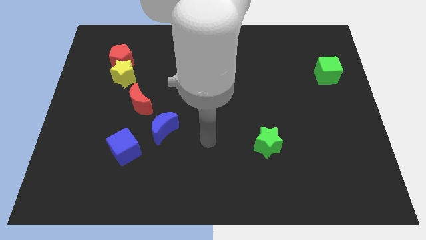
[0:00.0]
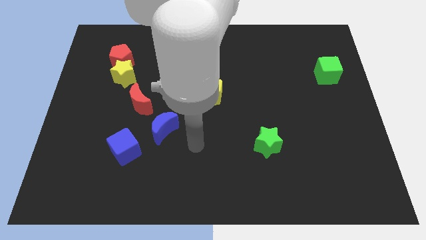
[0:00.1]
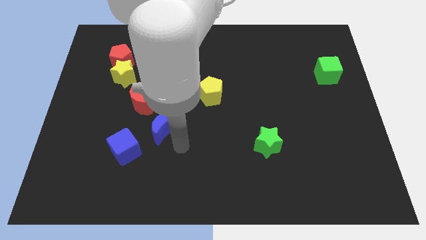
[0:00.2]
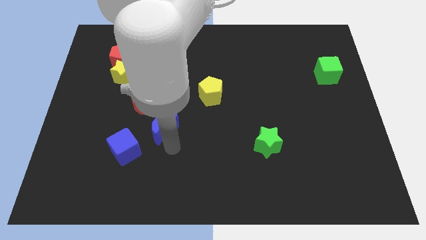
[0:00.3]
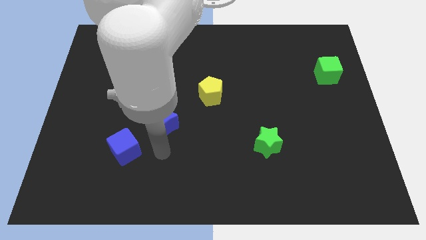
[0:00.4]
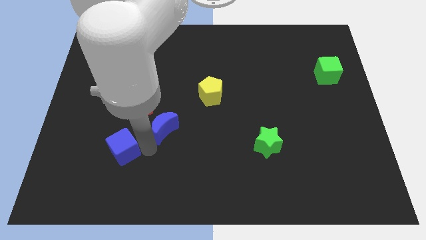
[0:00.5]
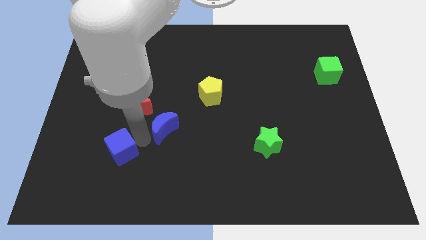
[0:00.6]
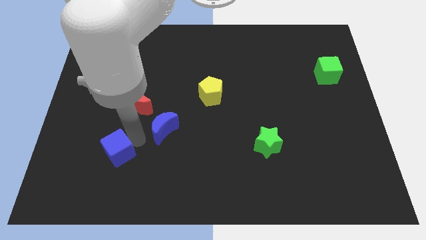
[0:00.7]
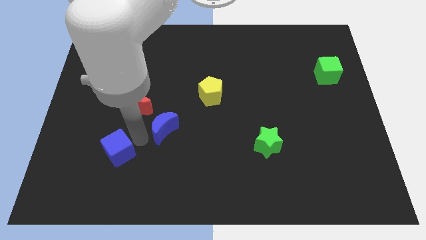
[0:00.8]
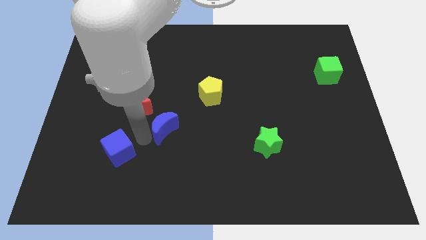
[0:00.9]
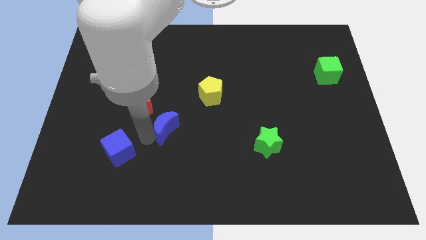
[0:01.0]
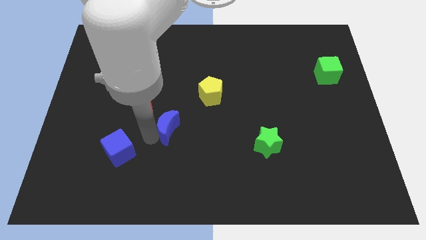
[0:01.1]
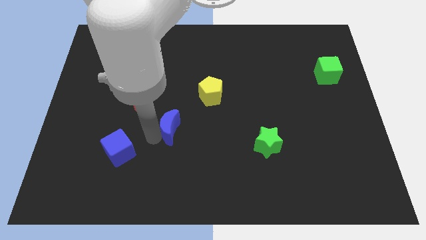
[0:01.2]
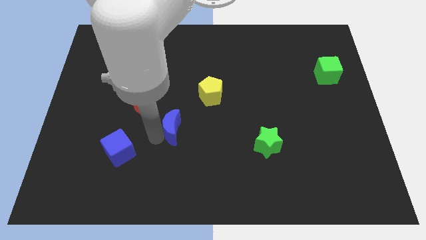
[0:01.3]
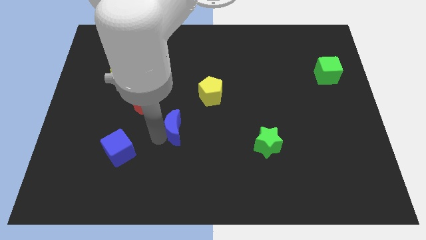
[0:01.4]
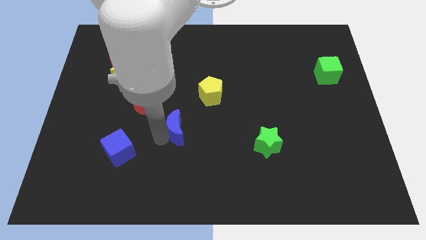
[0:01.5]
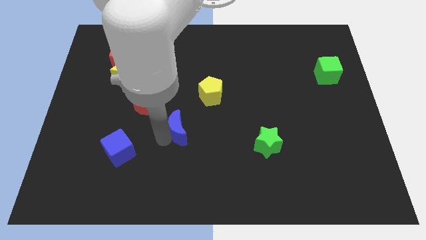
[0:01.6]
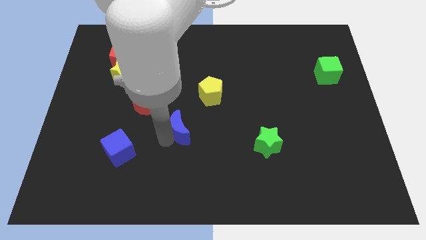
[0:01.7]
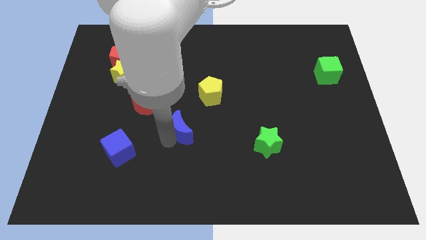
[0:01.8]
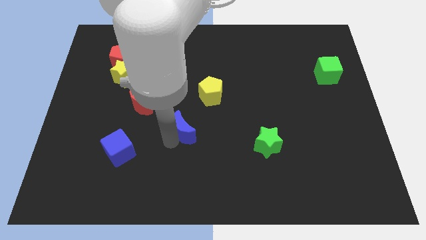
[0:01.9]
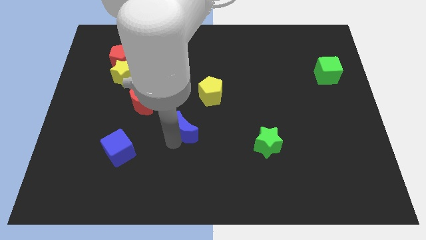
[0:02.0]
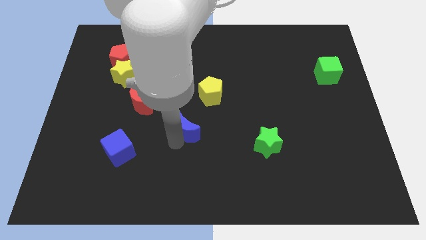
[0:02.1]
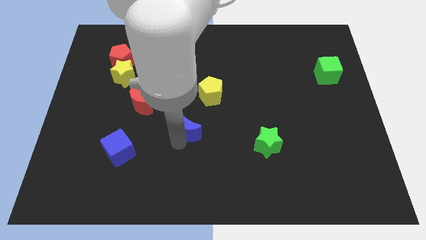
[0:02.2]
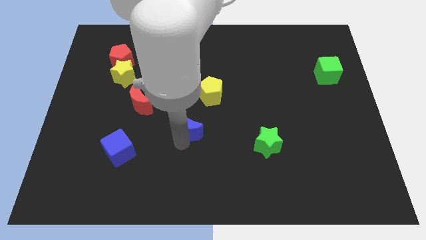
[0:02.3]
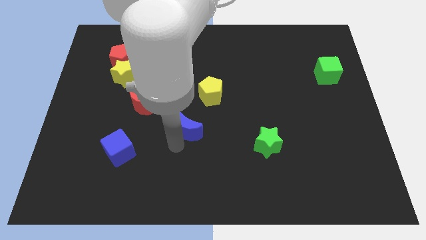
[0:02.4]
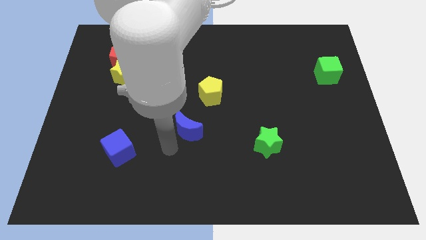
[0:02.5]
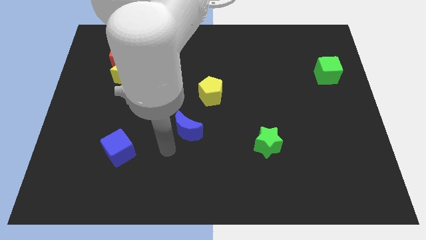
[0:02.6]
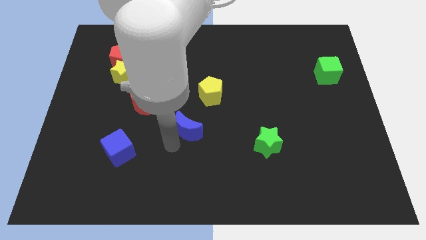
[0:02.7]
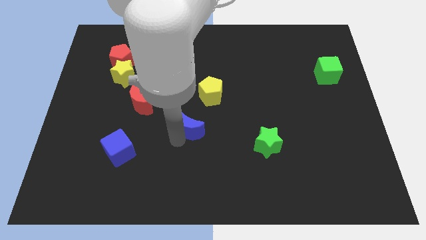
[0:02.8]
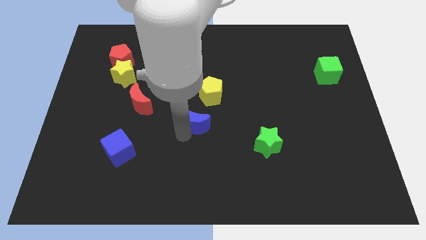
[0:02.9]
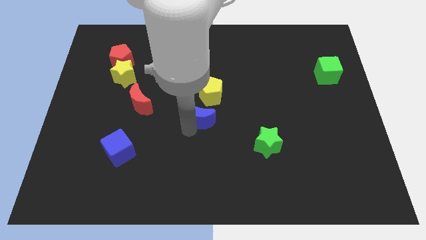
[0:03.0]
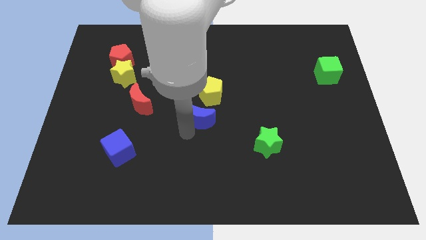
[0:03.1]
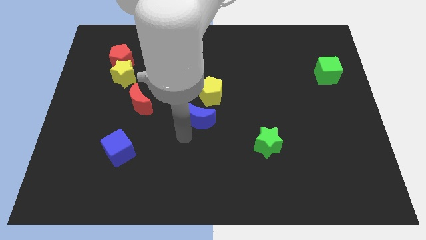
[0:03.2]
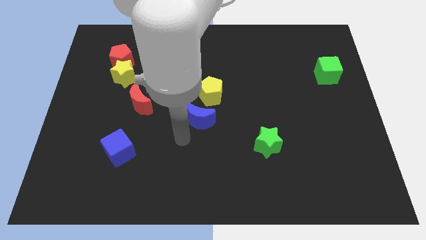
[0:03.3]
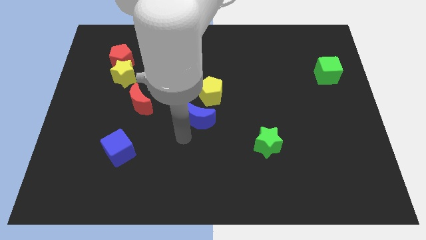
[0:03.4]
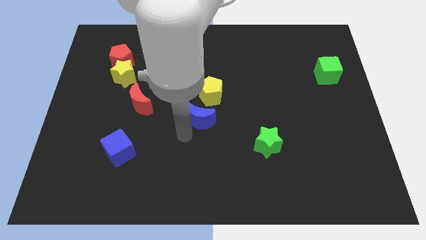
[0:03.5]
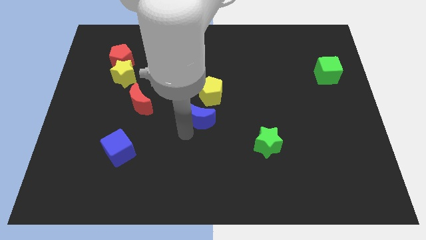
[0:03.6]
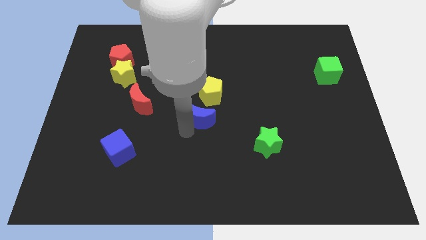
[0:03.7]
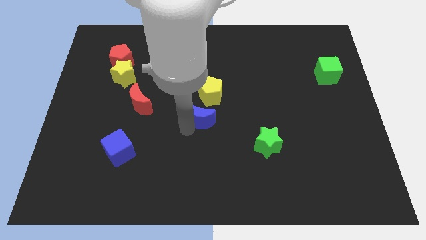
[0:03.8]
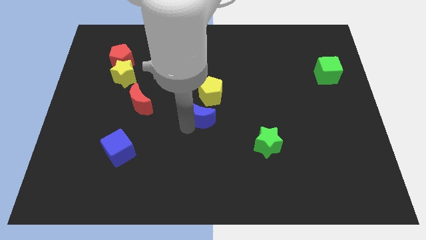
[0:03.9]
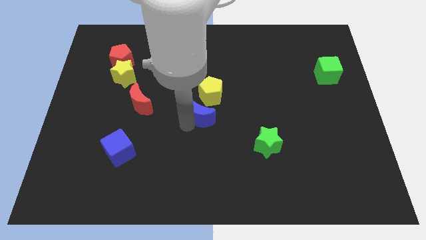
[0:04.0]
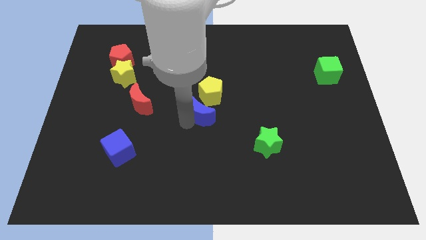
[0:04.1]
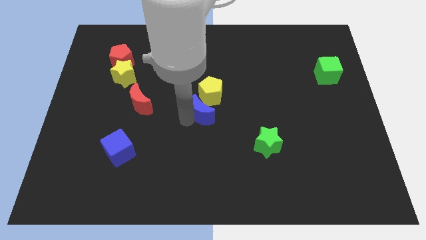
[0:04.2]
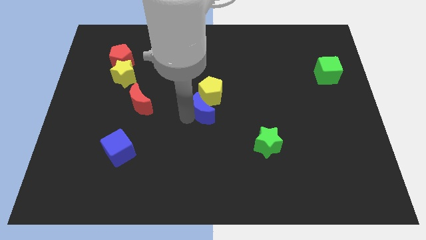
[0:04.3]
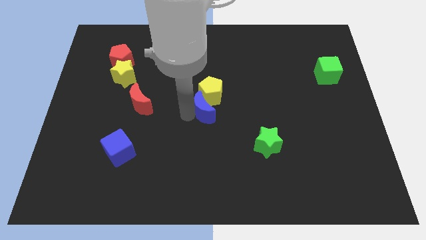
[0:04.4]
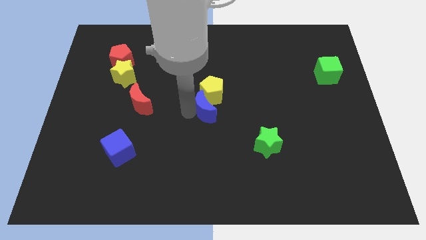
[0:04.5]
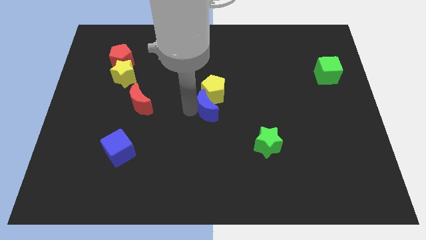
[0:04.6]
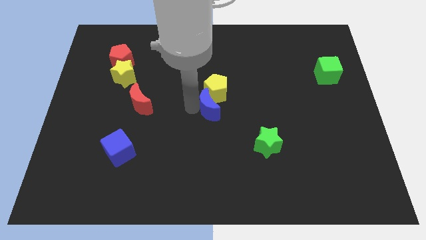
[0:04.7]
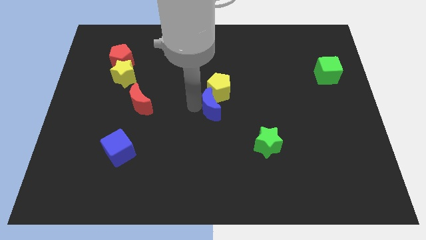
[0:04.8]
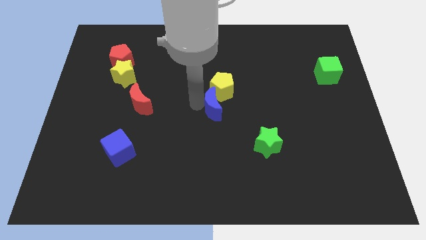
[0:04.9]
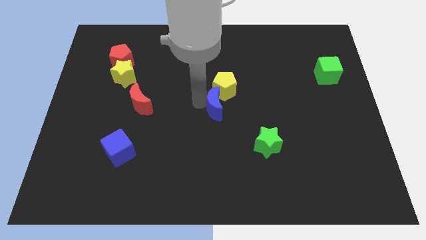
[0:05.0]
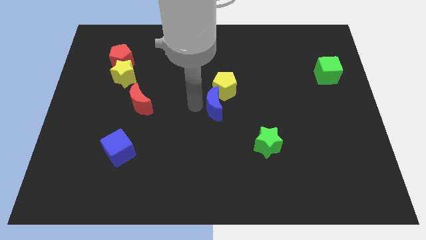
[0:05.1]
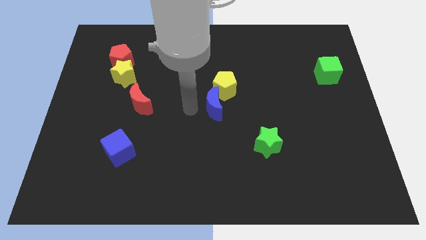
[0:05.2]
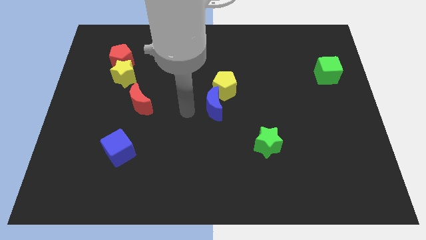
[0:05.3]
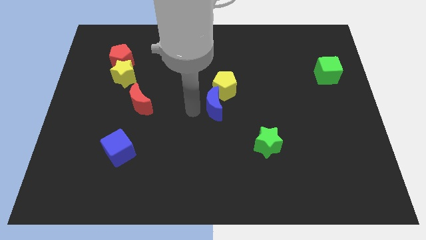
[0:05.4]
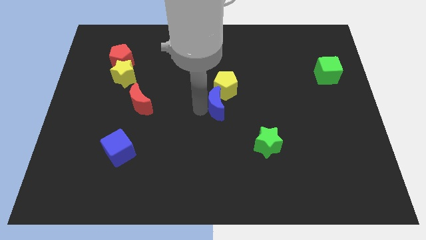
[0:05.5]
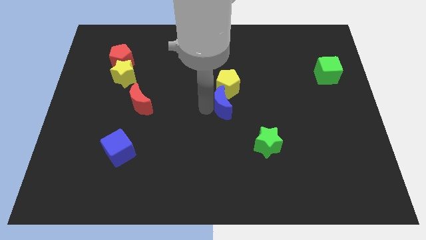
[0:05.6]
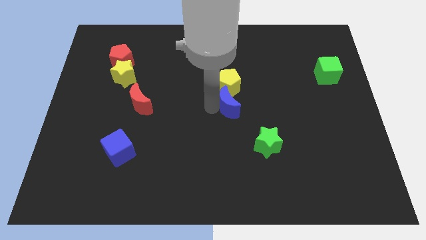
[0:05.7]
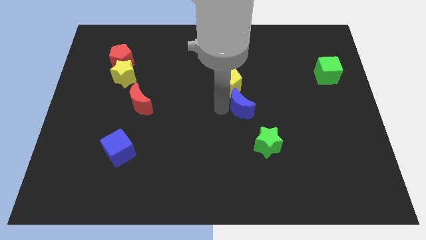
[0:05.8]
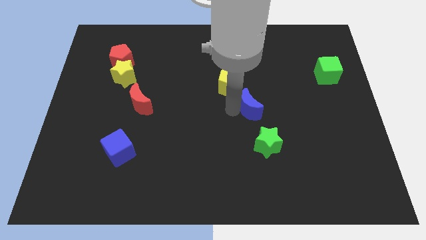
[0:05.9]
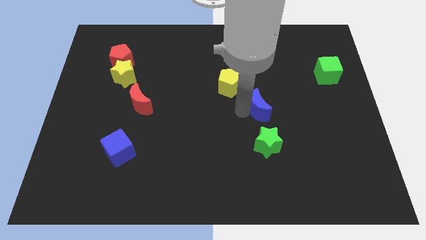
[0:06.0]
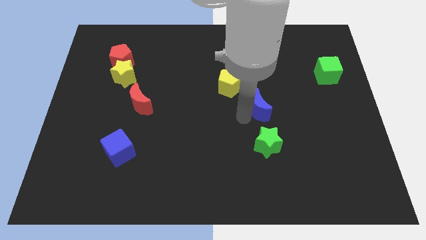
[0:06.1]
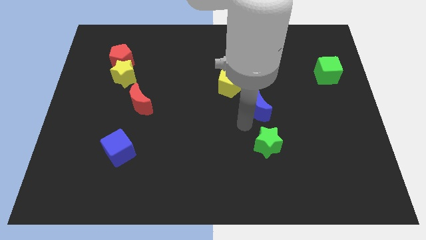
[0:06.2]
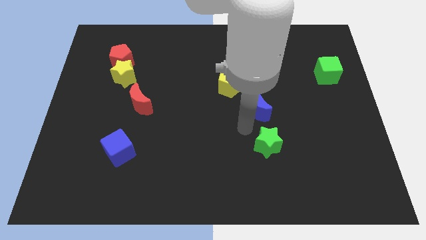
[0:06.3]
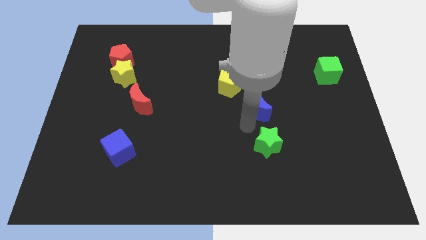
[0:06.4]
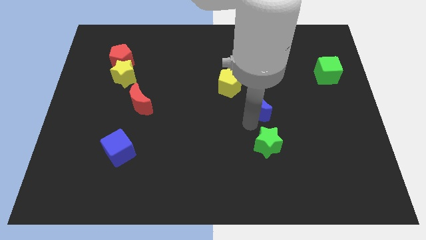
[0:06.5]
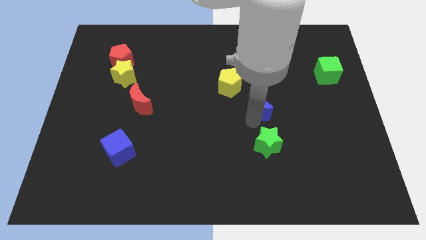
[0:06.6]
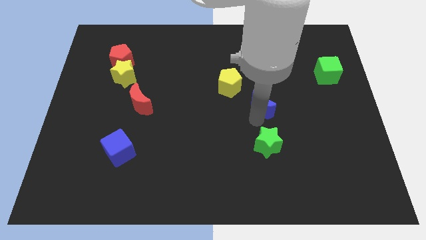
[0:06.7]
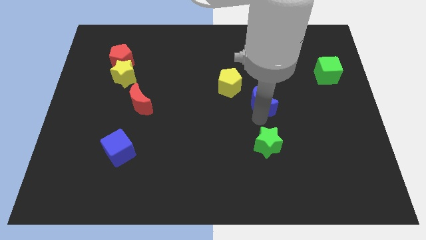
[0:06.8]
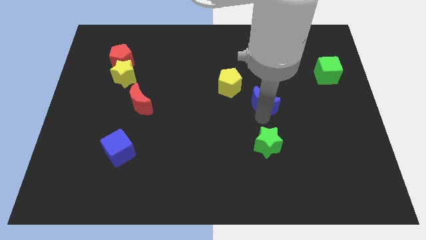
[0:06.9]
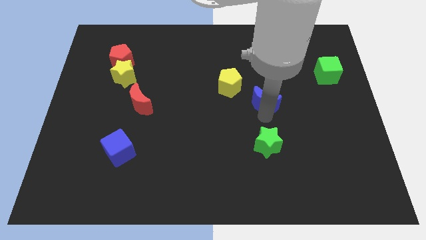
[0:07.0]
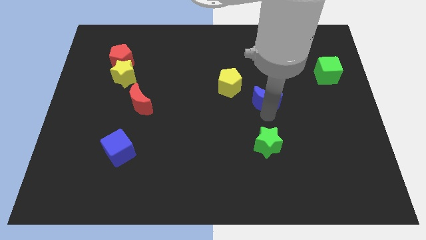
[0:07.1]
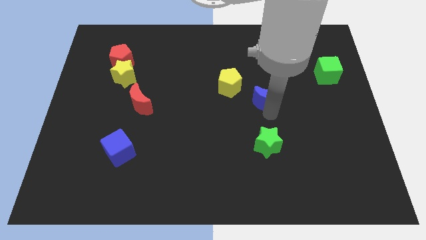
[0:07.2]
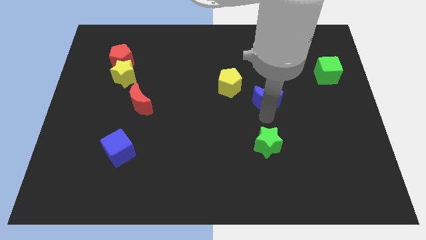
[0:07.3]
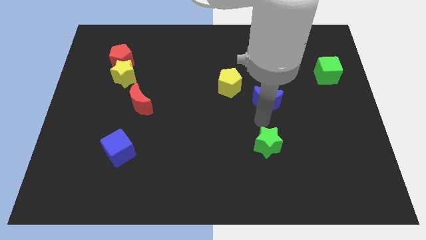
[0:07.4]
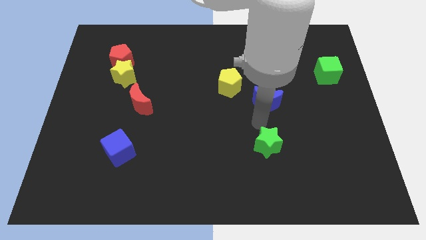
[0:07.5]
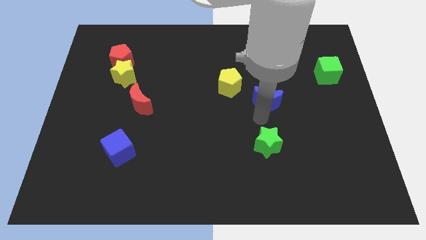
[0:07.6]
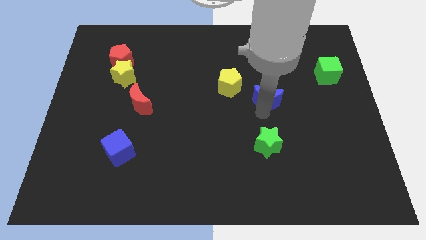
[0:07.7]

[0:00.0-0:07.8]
move the blue moon to the right side of the yellow pentagon
